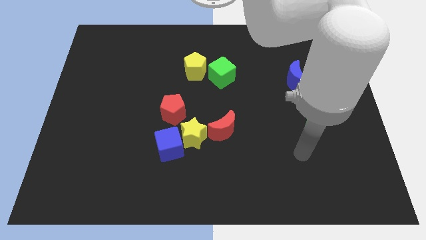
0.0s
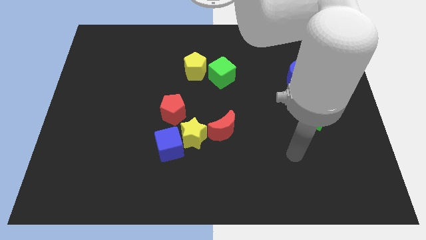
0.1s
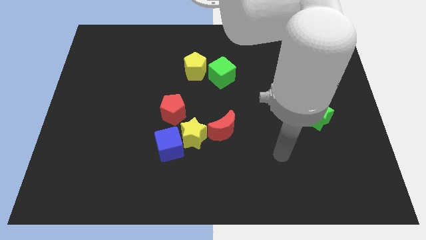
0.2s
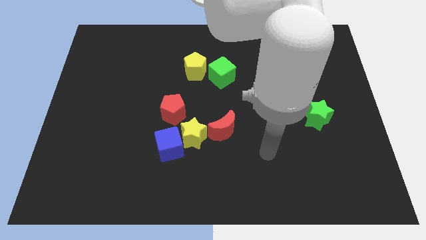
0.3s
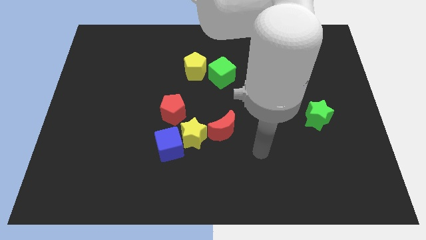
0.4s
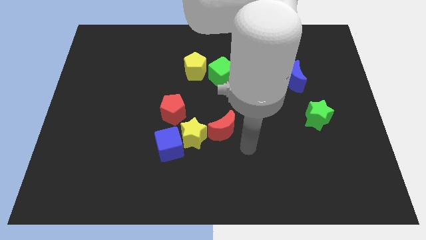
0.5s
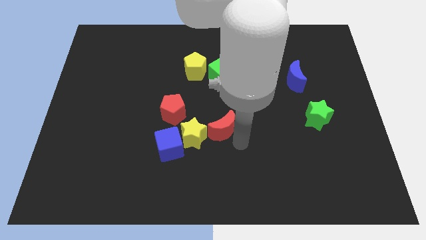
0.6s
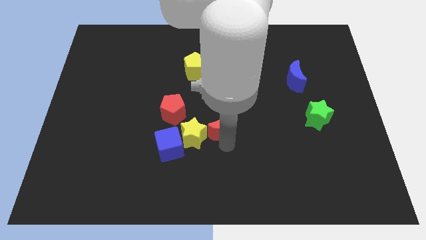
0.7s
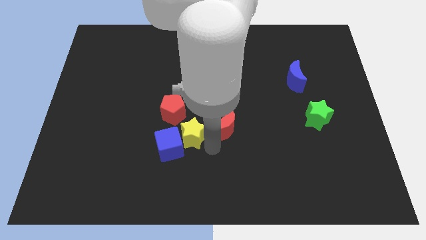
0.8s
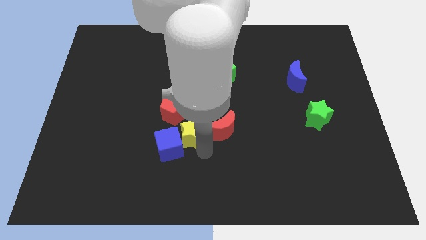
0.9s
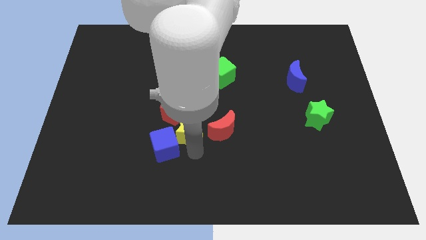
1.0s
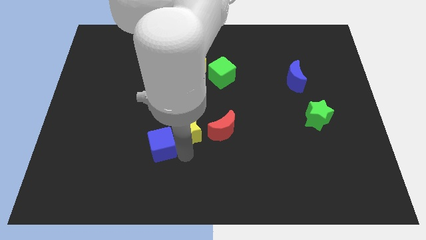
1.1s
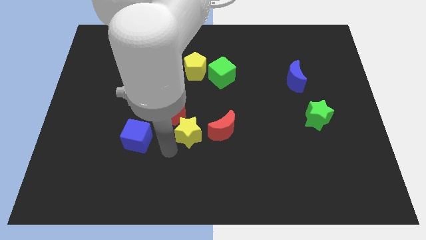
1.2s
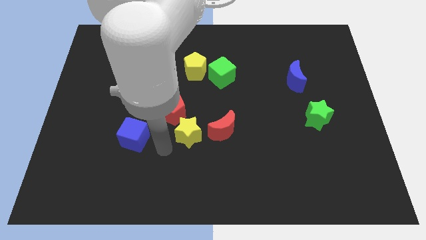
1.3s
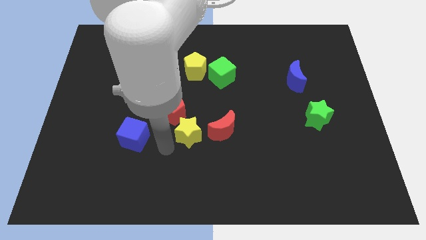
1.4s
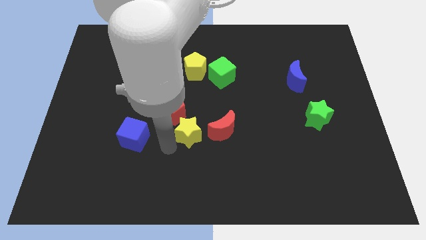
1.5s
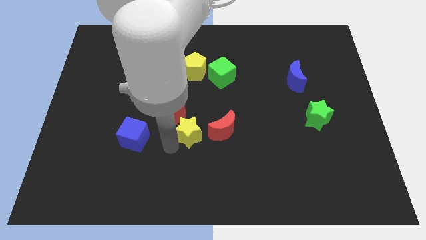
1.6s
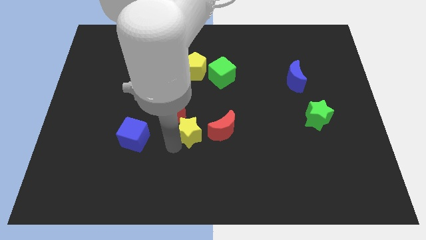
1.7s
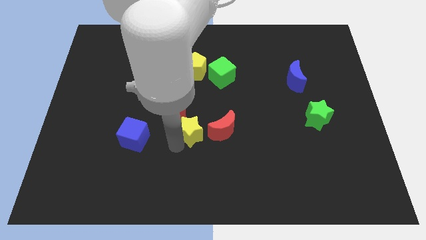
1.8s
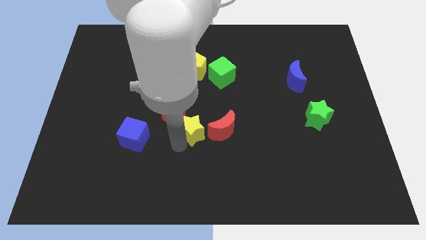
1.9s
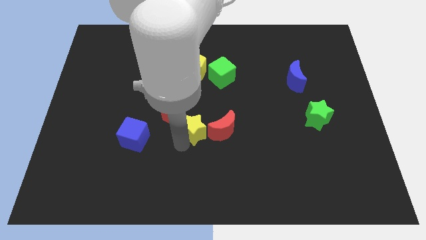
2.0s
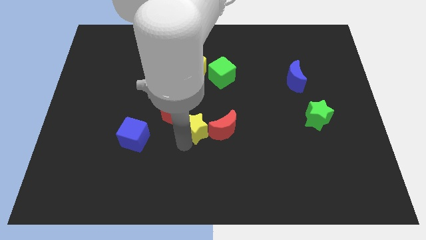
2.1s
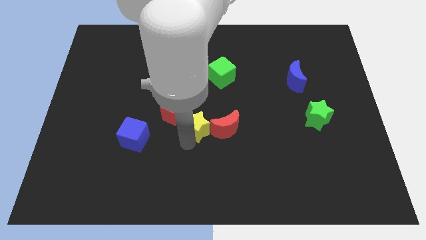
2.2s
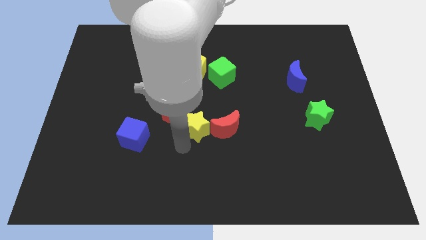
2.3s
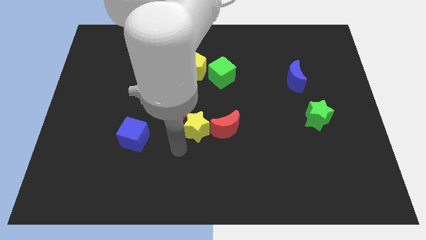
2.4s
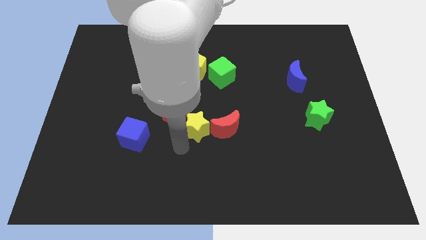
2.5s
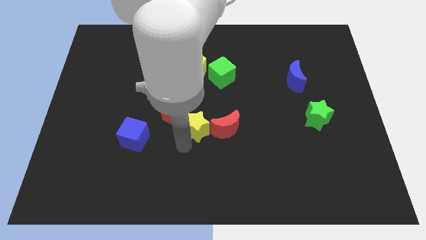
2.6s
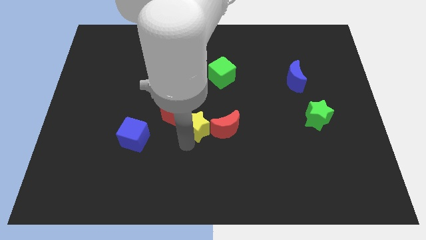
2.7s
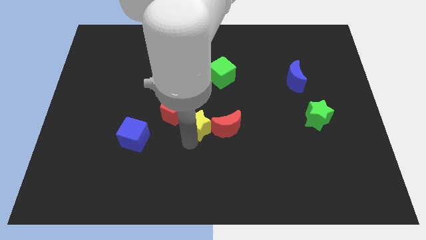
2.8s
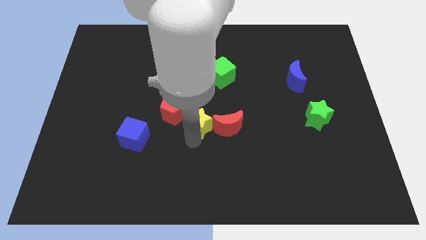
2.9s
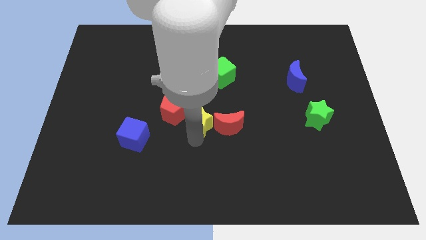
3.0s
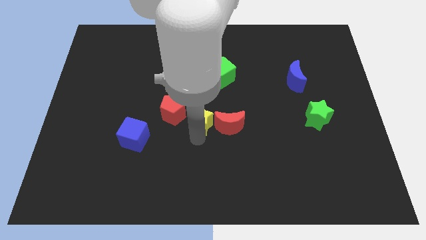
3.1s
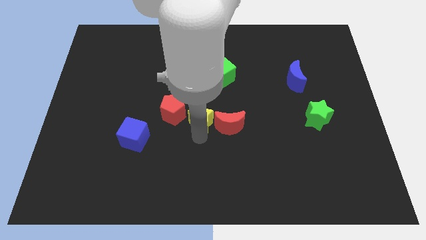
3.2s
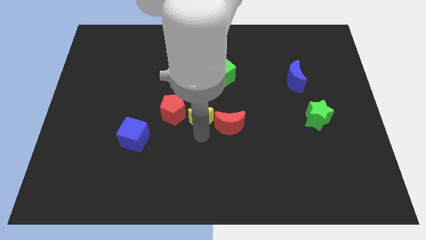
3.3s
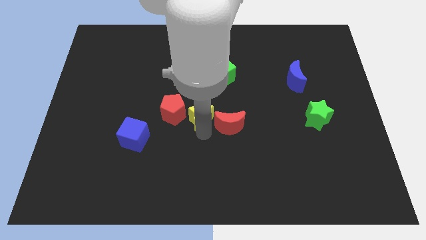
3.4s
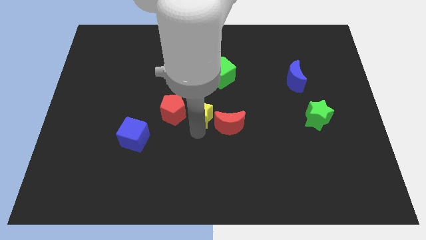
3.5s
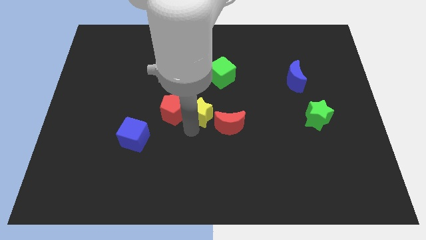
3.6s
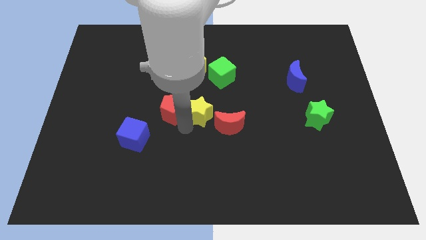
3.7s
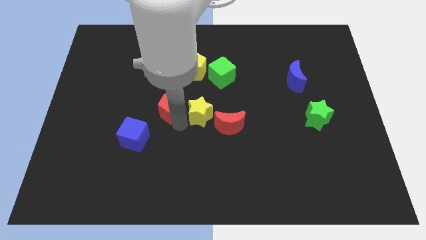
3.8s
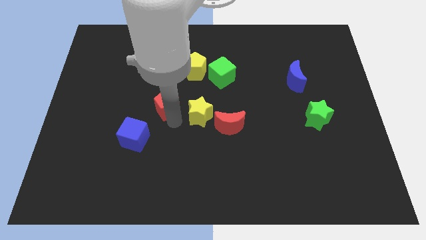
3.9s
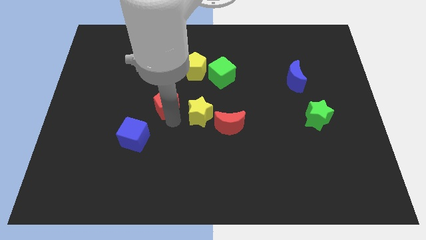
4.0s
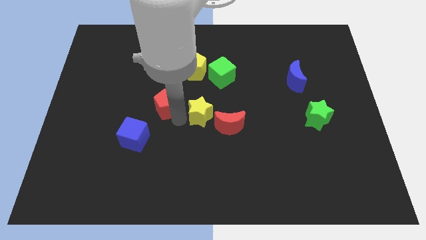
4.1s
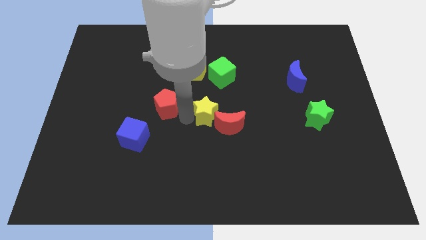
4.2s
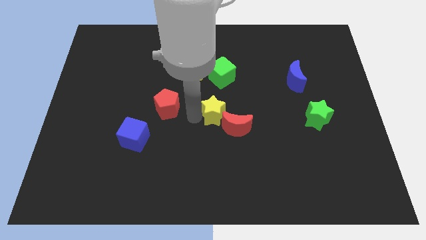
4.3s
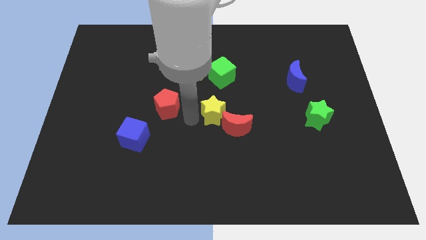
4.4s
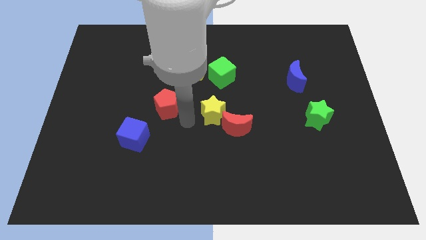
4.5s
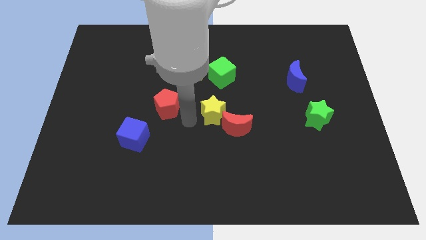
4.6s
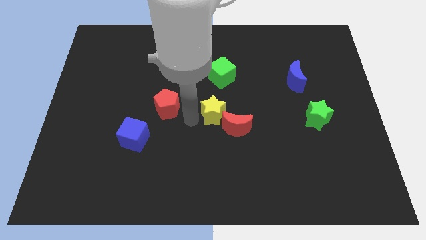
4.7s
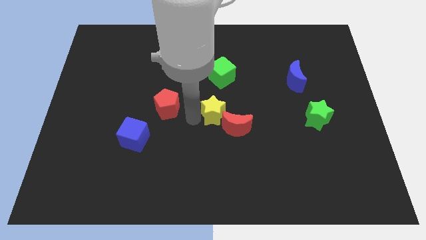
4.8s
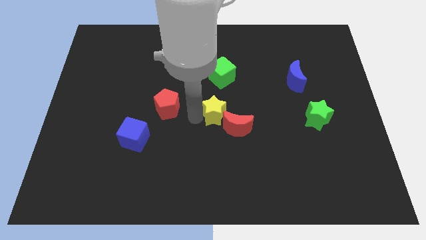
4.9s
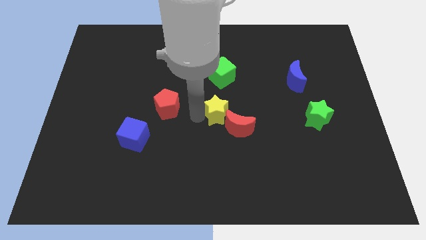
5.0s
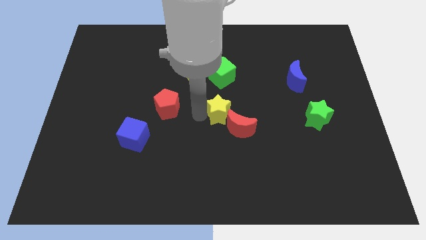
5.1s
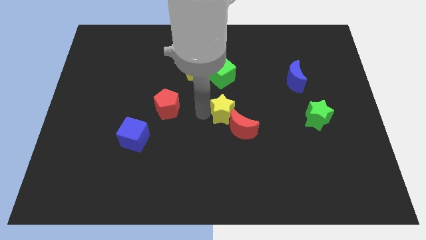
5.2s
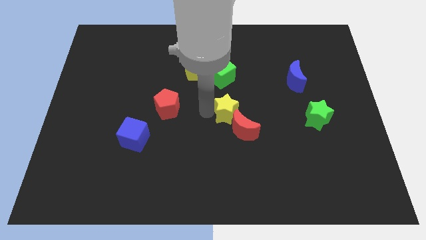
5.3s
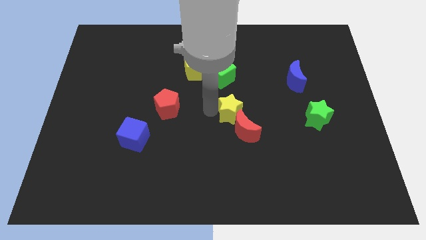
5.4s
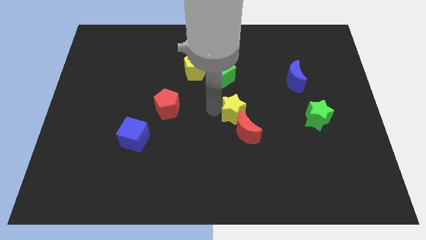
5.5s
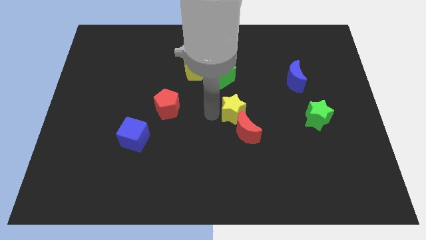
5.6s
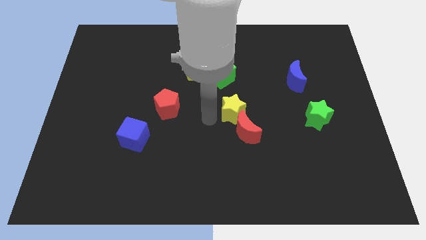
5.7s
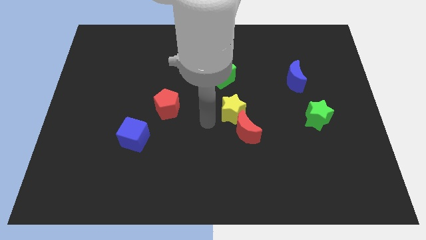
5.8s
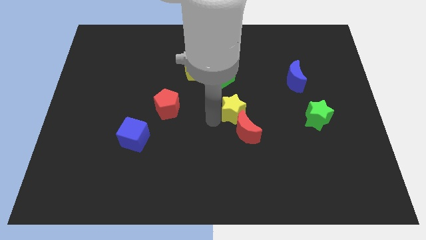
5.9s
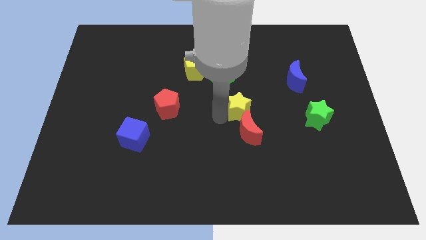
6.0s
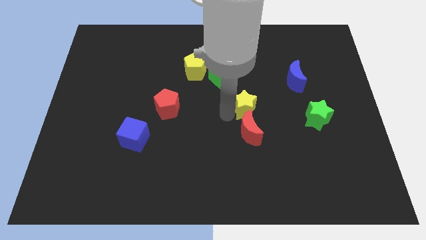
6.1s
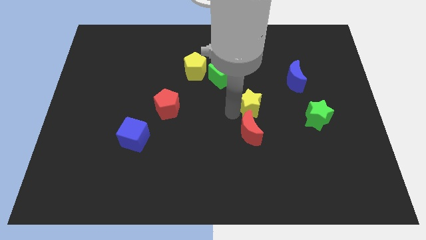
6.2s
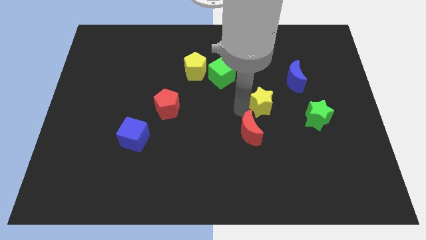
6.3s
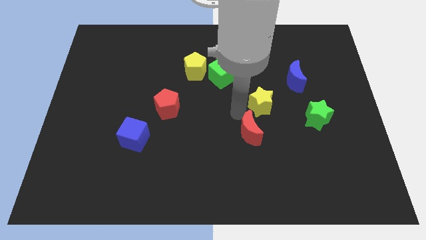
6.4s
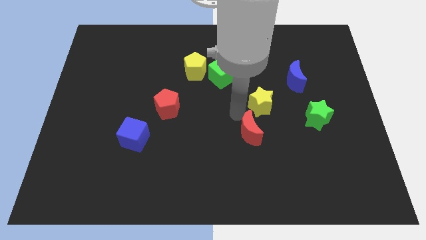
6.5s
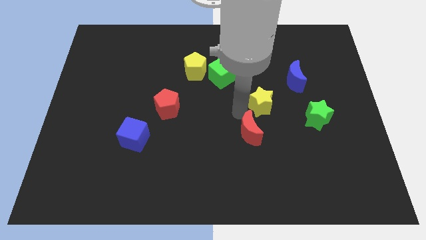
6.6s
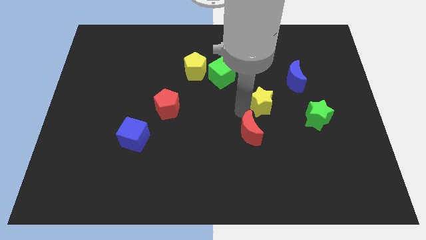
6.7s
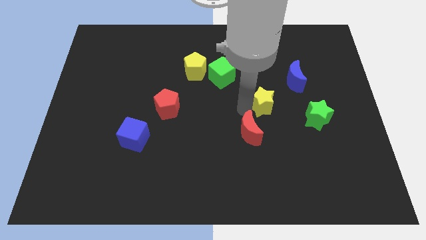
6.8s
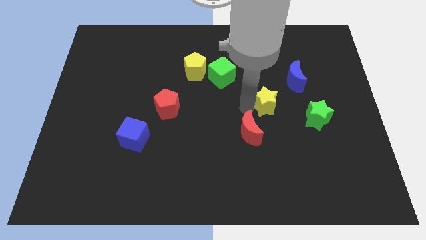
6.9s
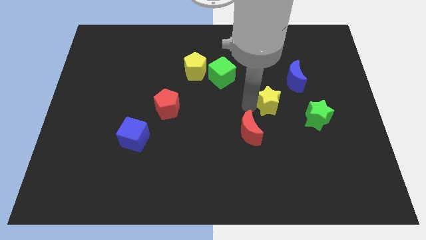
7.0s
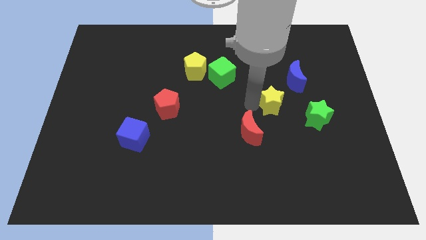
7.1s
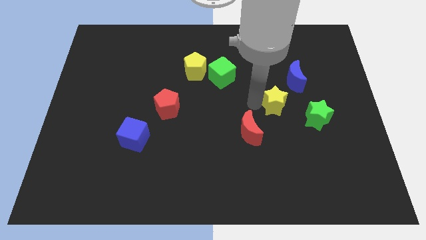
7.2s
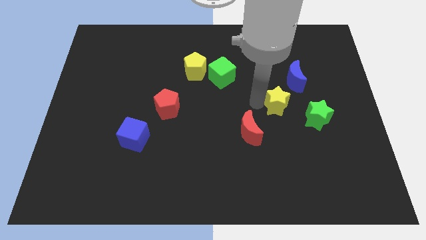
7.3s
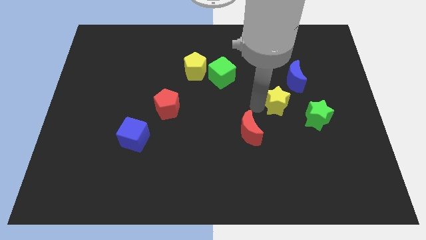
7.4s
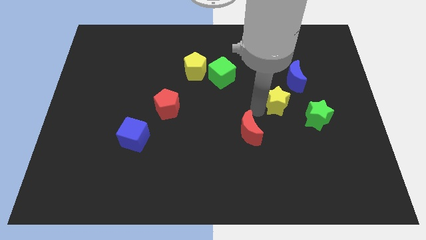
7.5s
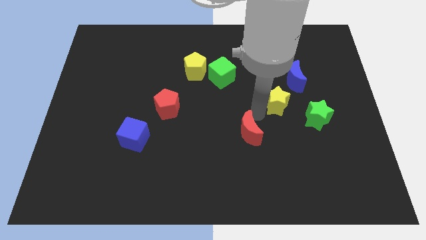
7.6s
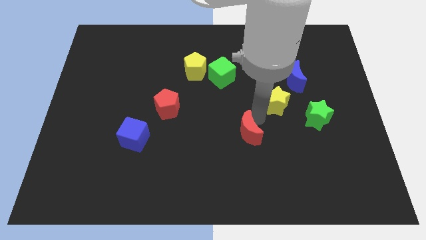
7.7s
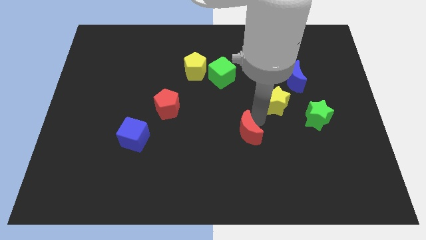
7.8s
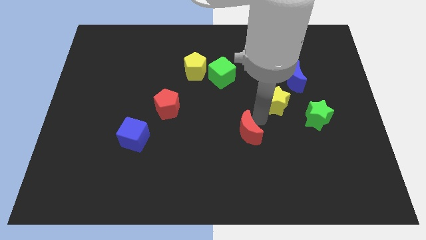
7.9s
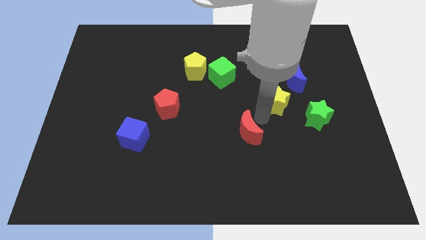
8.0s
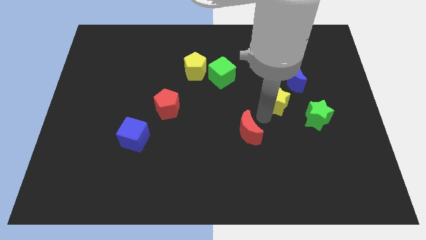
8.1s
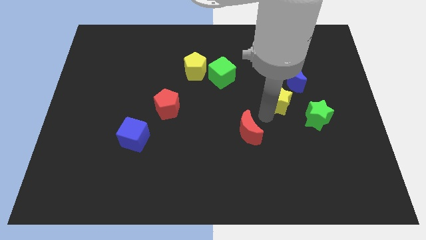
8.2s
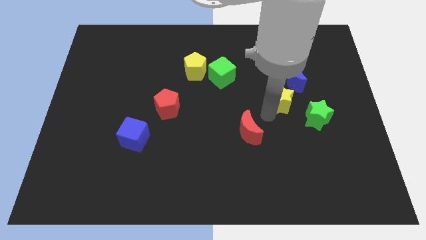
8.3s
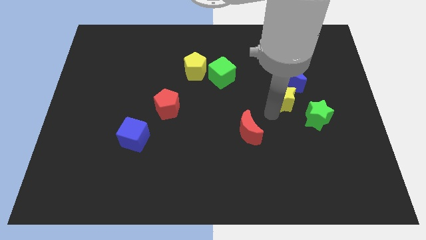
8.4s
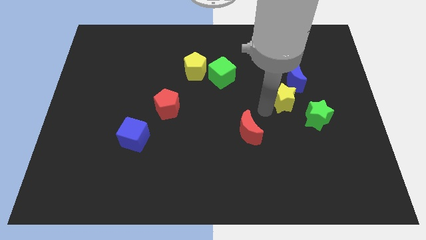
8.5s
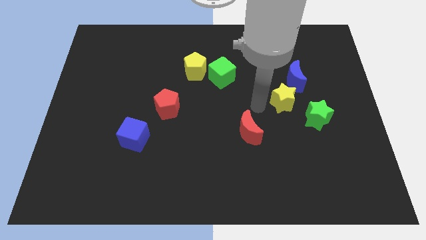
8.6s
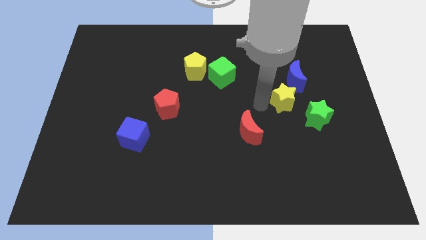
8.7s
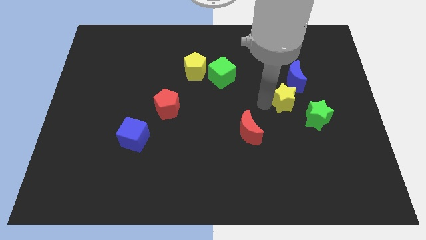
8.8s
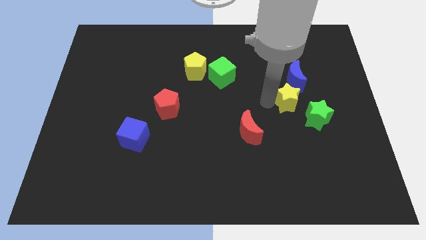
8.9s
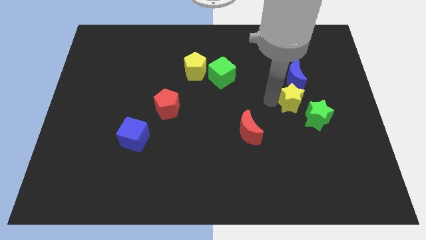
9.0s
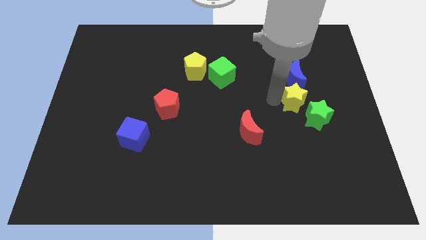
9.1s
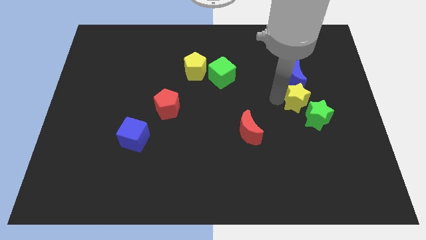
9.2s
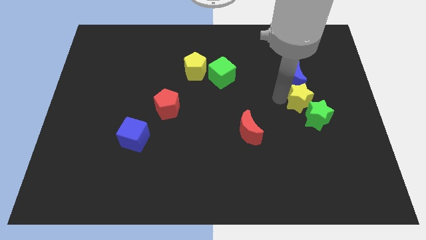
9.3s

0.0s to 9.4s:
slide the yellow star diagonally down and to the right of the blue moon
